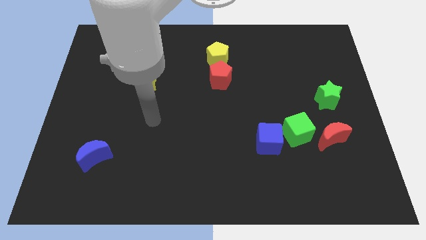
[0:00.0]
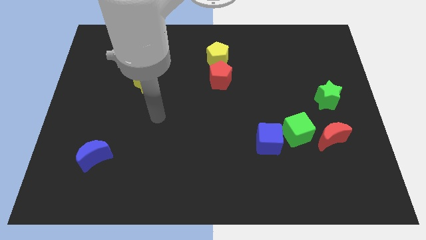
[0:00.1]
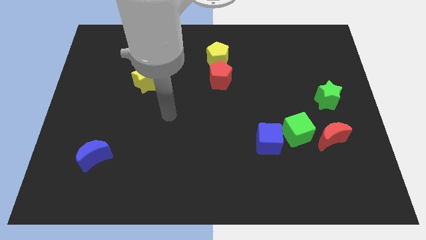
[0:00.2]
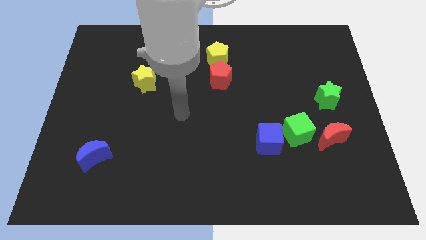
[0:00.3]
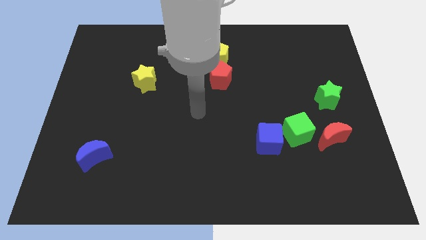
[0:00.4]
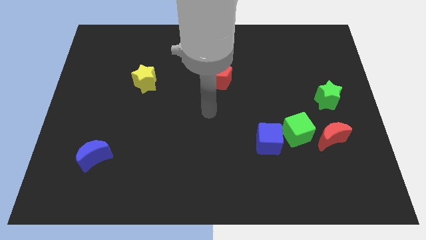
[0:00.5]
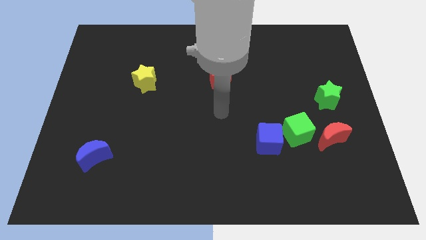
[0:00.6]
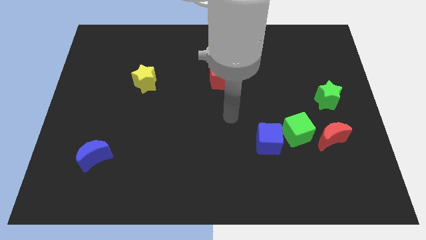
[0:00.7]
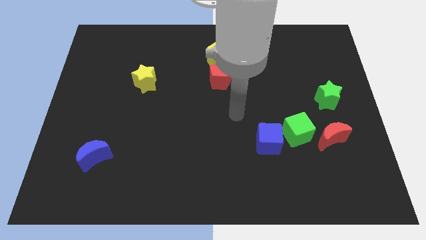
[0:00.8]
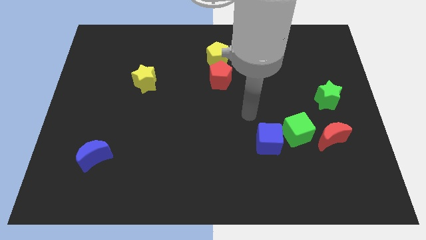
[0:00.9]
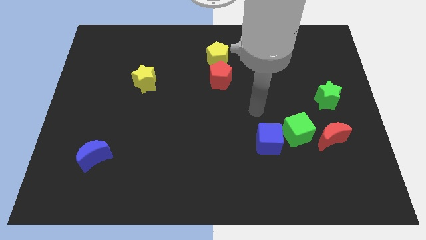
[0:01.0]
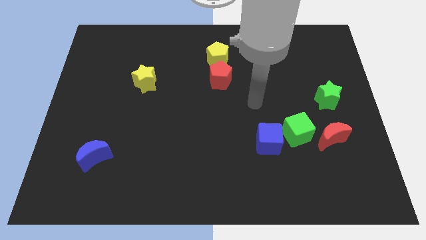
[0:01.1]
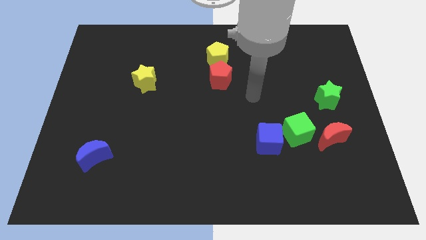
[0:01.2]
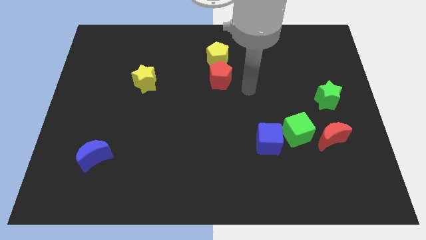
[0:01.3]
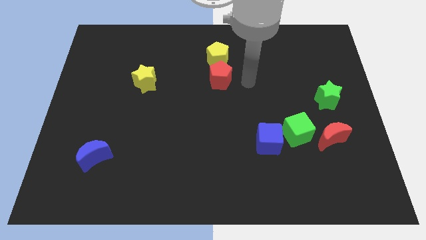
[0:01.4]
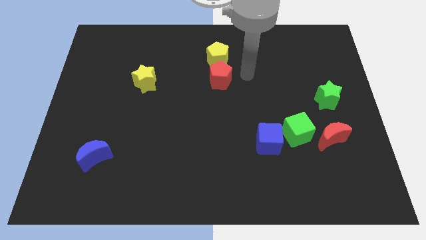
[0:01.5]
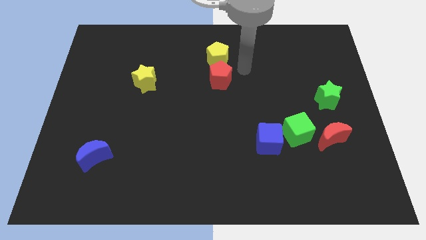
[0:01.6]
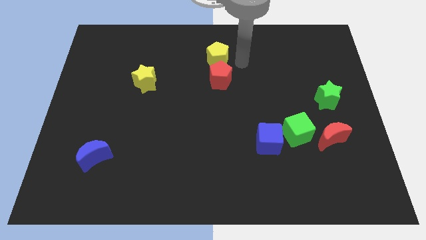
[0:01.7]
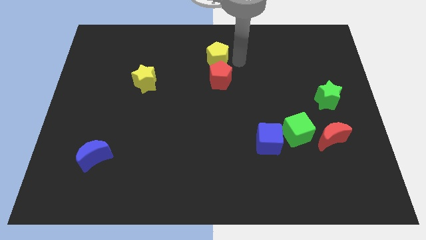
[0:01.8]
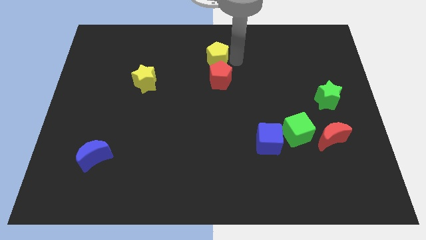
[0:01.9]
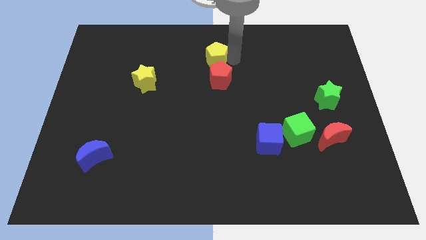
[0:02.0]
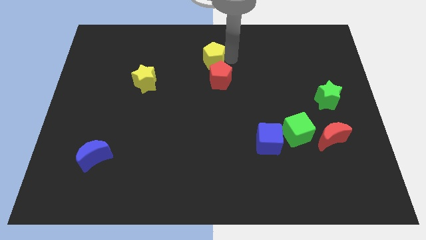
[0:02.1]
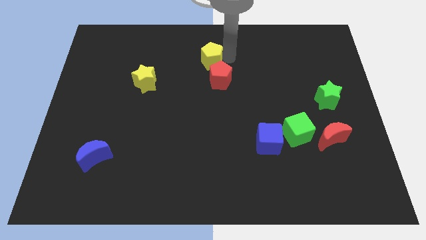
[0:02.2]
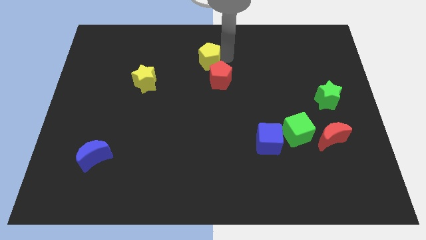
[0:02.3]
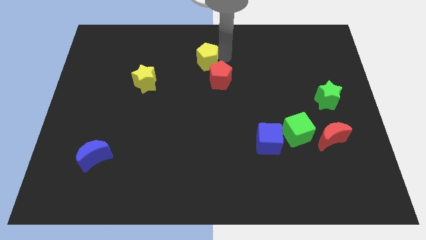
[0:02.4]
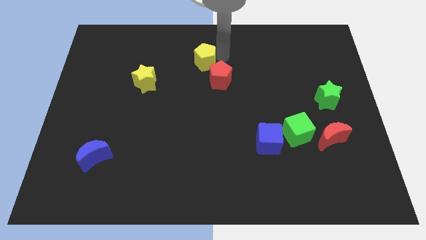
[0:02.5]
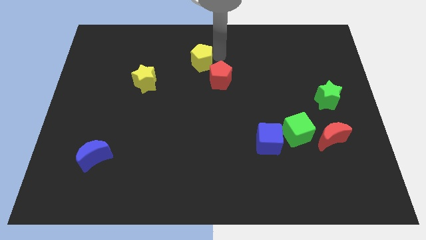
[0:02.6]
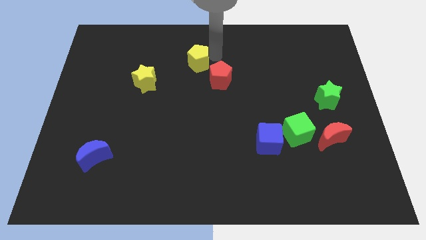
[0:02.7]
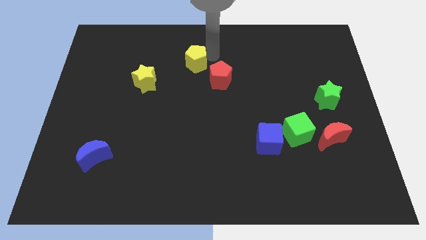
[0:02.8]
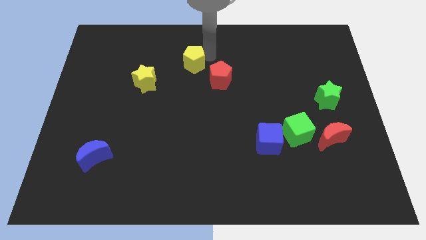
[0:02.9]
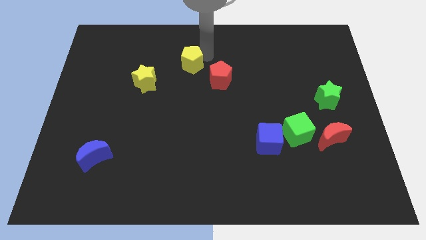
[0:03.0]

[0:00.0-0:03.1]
slide the yellow pentagon slightly to the left

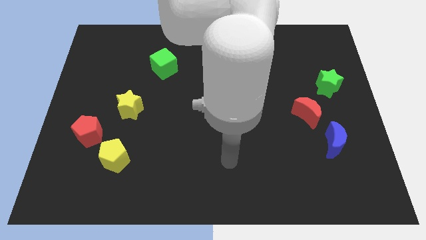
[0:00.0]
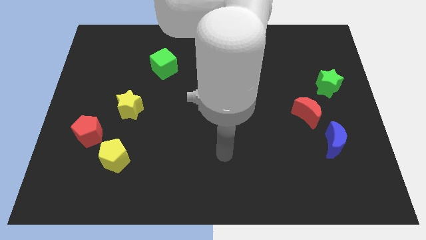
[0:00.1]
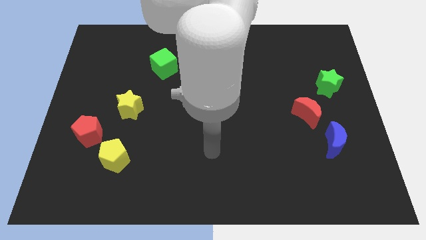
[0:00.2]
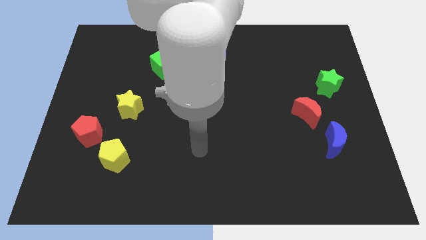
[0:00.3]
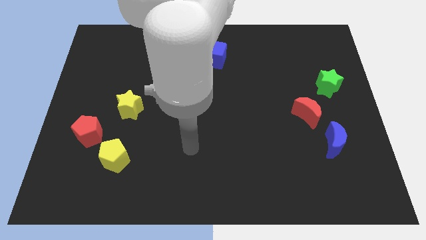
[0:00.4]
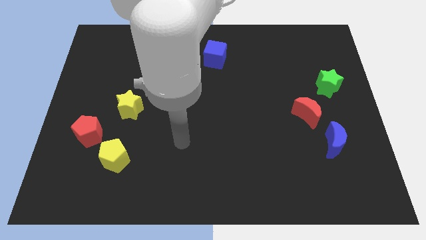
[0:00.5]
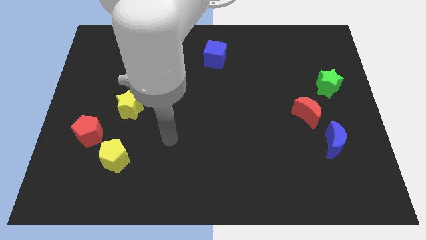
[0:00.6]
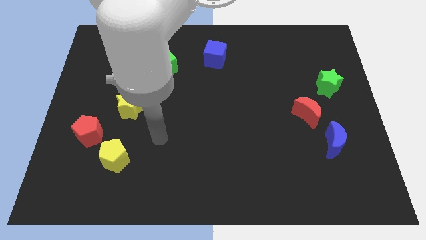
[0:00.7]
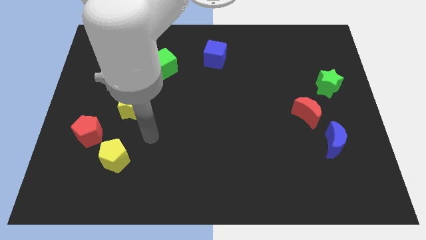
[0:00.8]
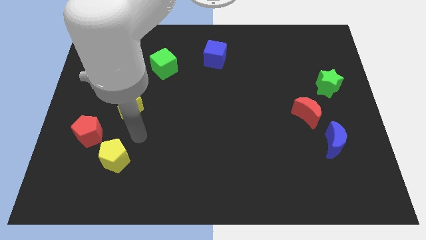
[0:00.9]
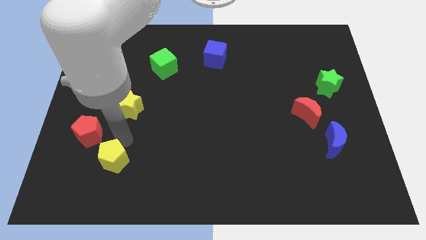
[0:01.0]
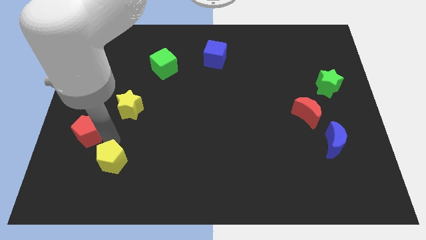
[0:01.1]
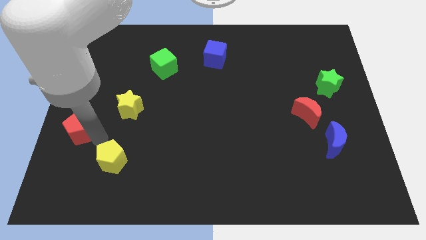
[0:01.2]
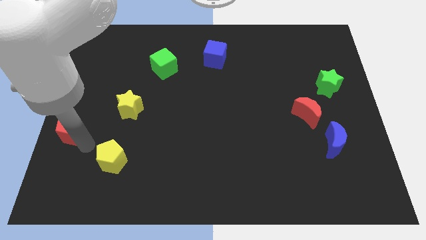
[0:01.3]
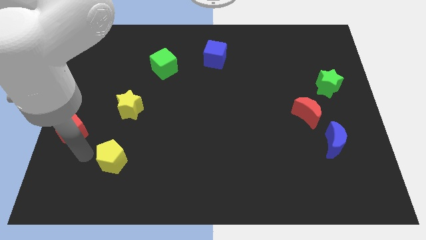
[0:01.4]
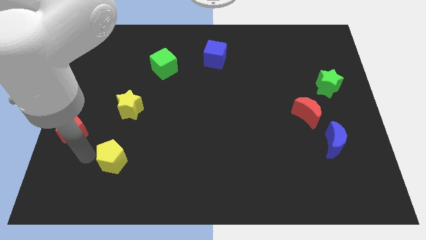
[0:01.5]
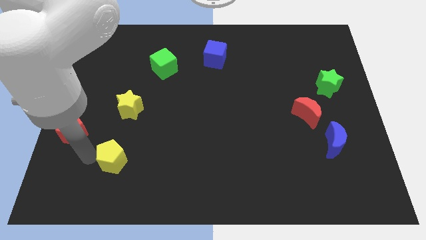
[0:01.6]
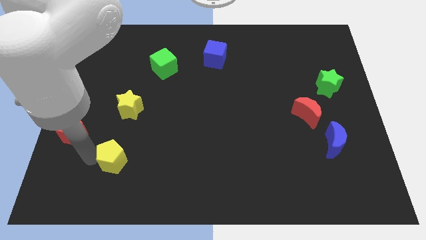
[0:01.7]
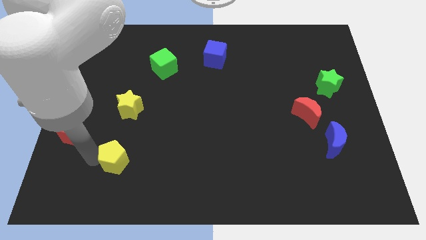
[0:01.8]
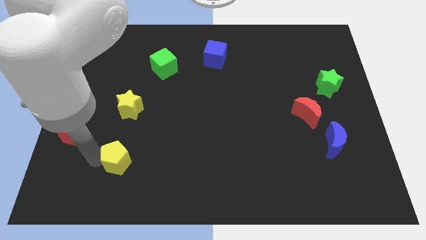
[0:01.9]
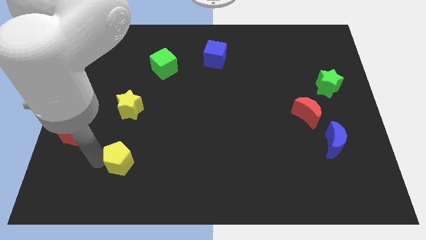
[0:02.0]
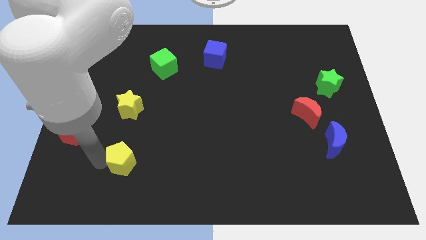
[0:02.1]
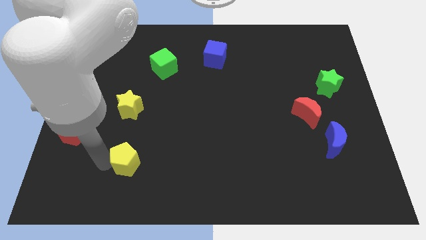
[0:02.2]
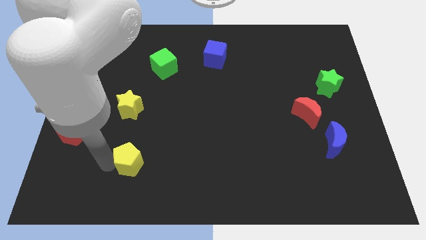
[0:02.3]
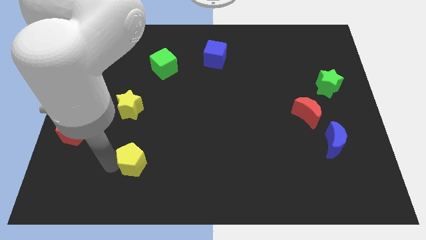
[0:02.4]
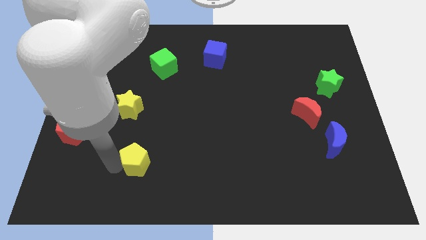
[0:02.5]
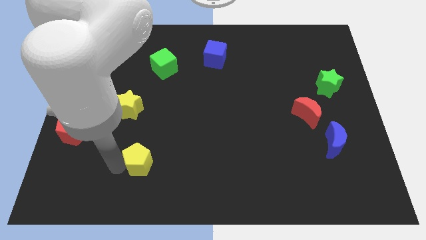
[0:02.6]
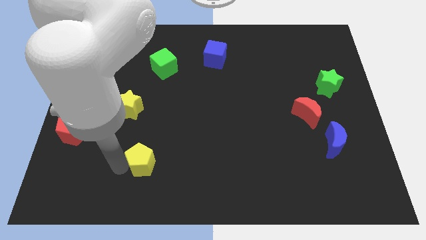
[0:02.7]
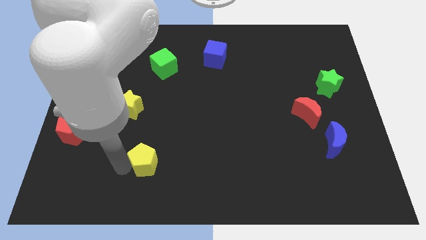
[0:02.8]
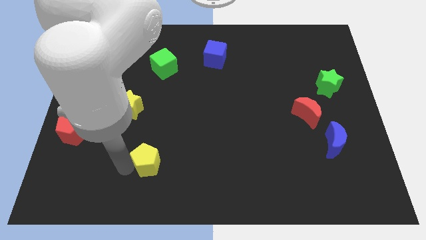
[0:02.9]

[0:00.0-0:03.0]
move the yellow pentagon right somewhat

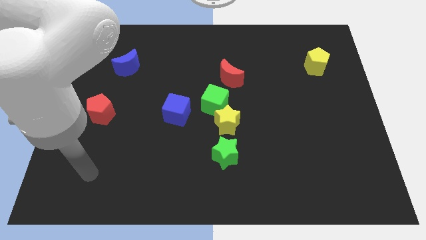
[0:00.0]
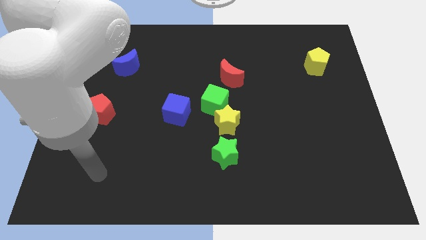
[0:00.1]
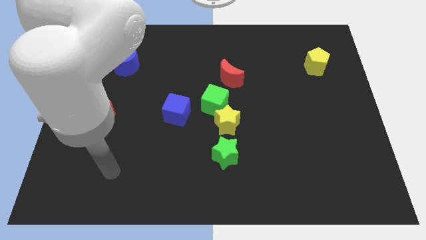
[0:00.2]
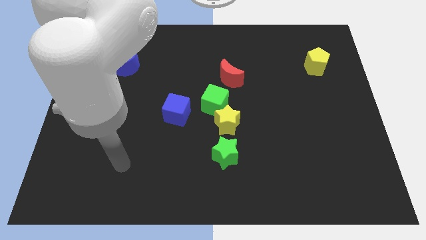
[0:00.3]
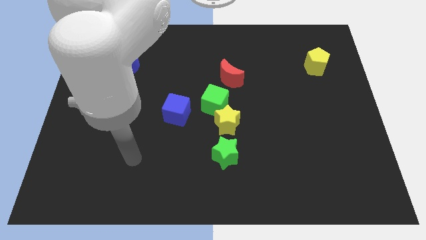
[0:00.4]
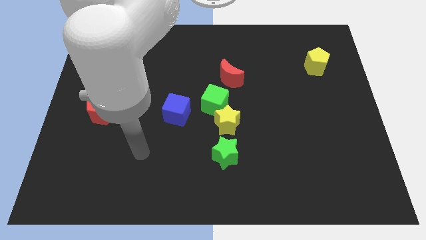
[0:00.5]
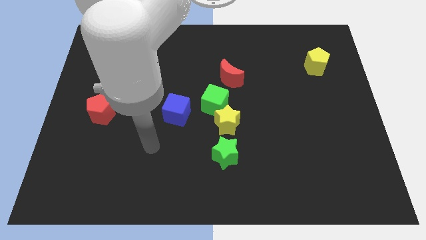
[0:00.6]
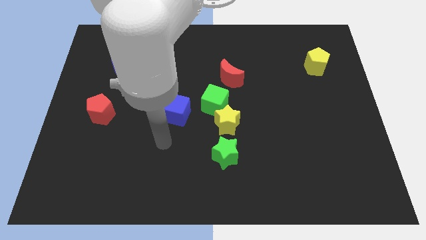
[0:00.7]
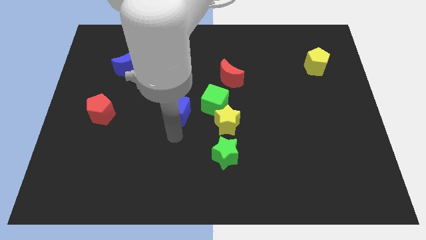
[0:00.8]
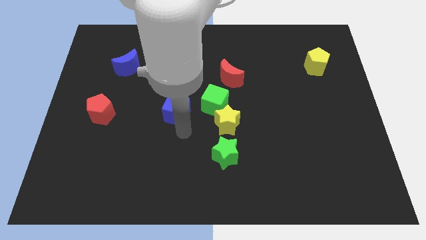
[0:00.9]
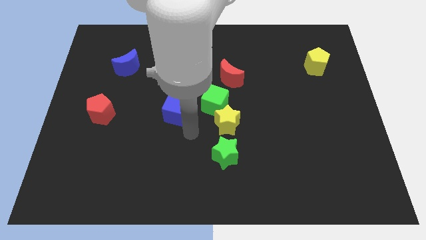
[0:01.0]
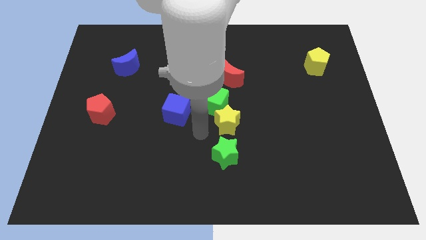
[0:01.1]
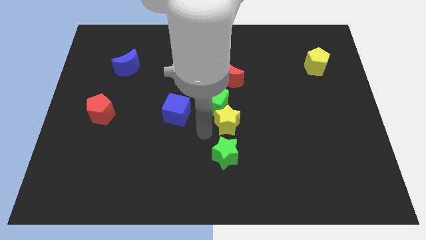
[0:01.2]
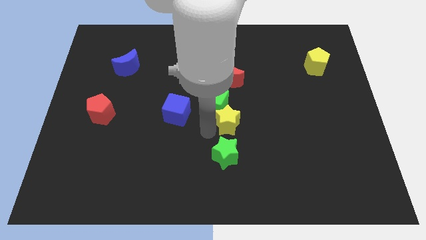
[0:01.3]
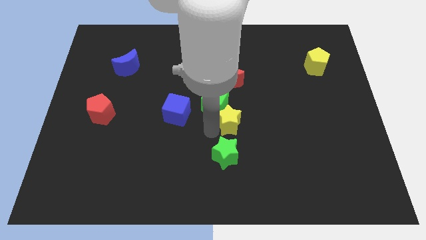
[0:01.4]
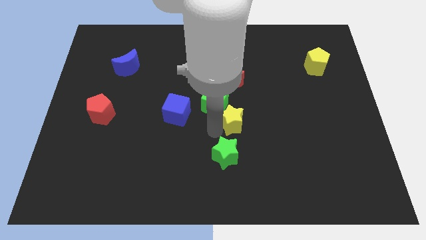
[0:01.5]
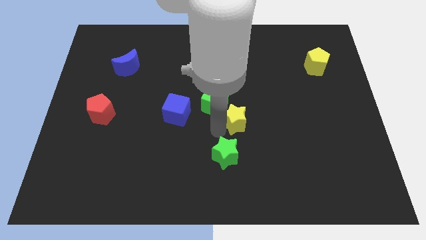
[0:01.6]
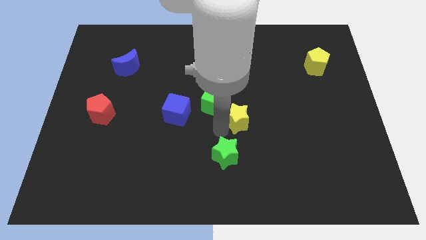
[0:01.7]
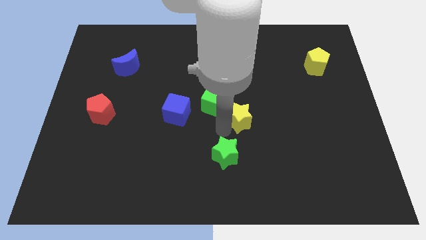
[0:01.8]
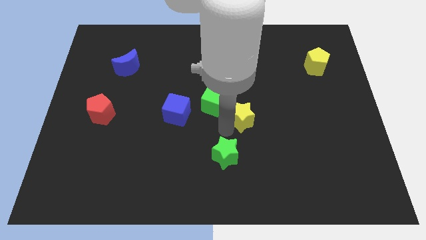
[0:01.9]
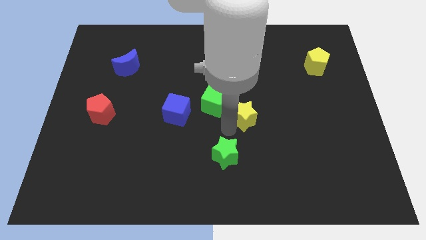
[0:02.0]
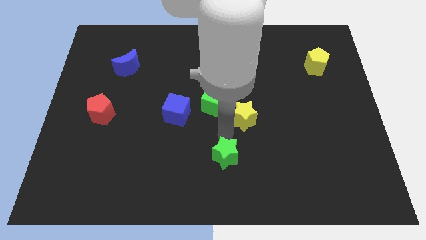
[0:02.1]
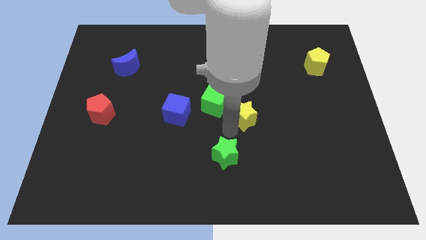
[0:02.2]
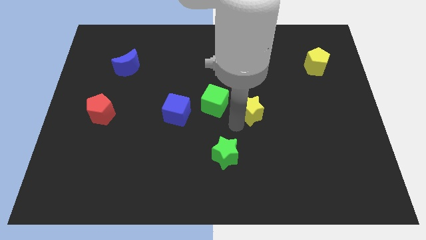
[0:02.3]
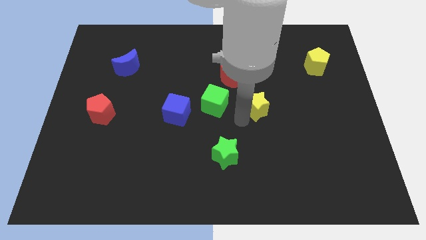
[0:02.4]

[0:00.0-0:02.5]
slide the yellow star up and to the right diagonally a little bit
